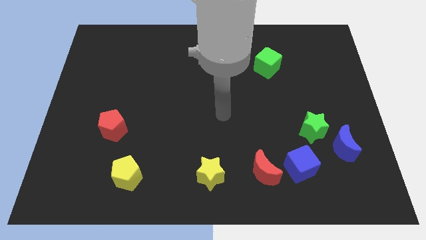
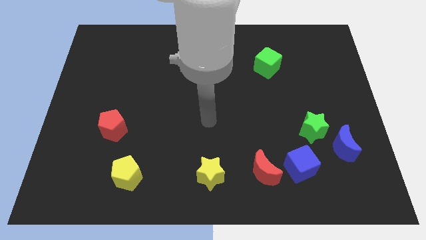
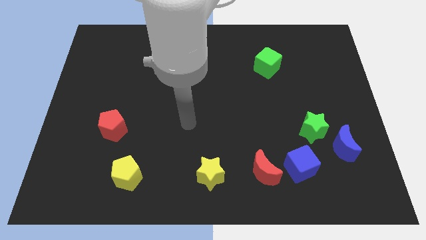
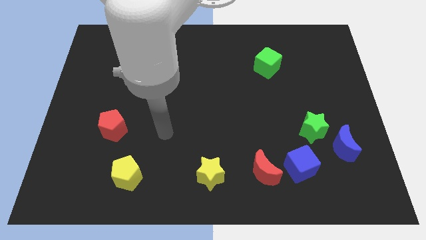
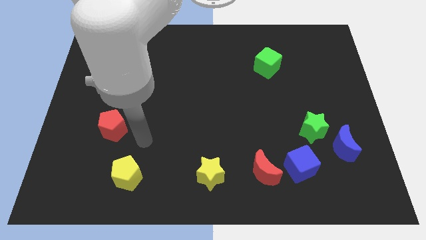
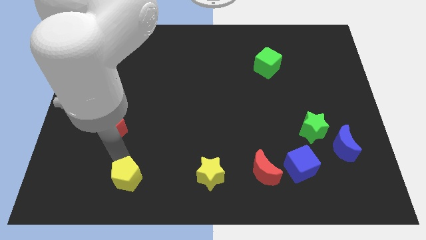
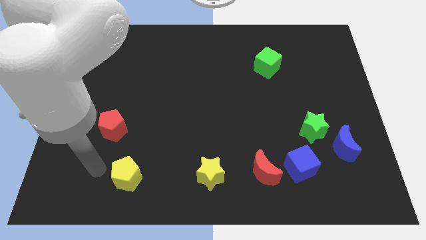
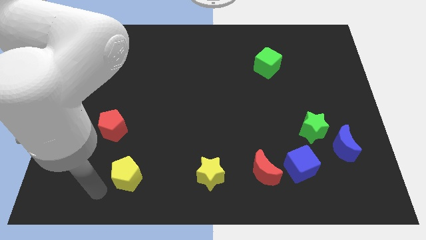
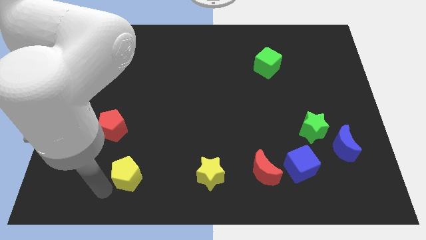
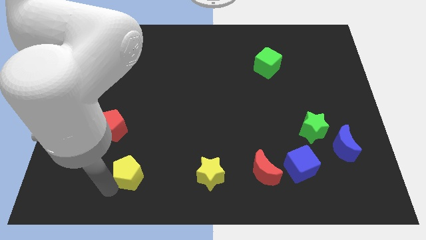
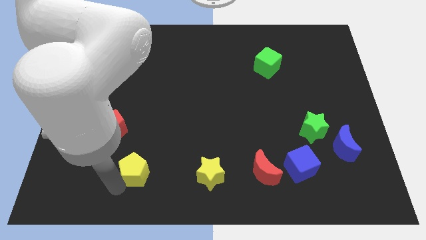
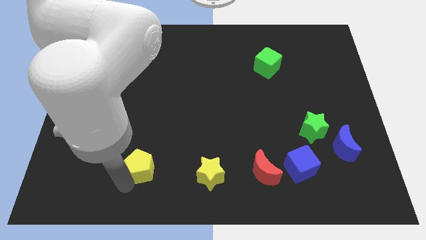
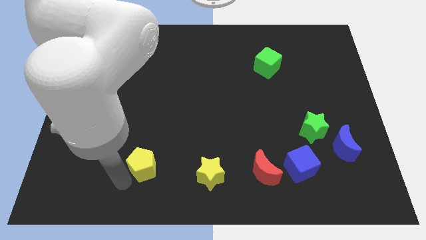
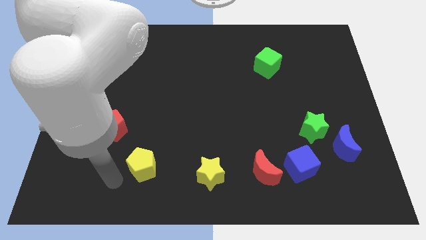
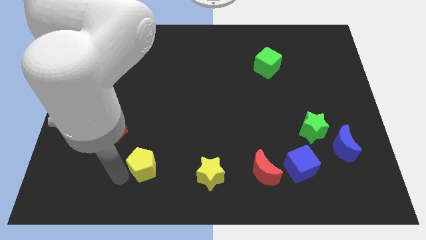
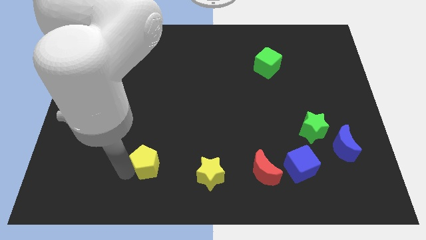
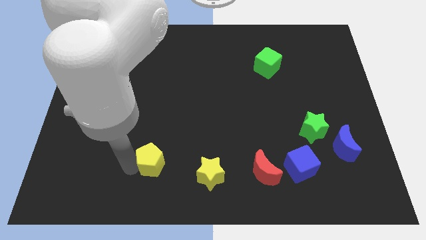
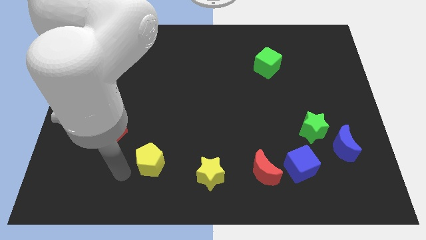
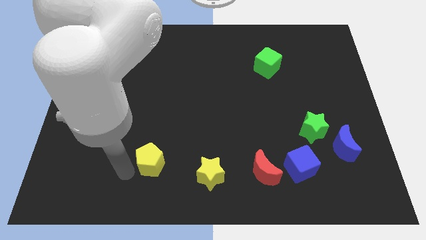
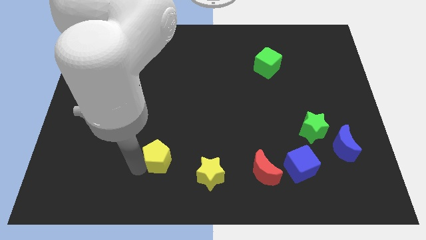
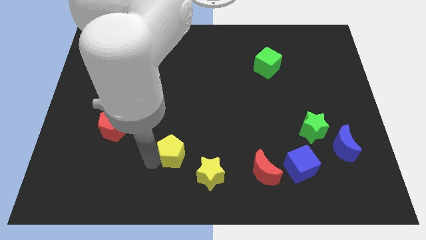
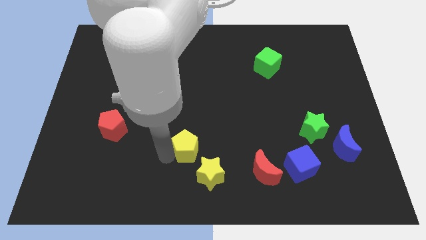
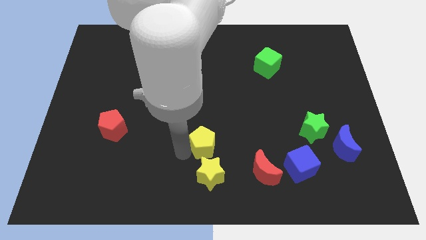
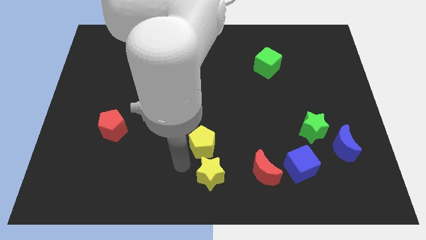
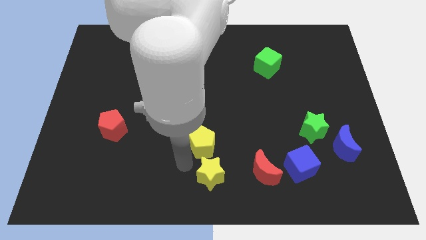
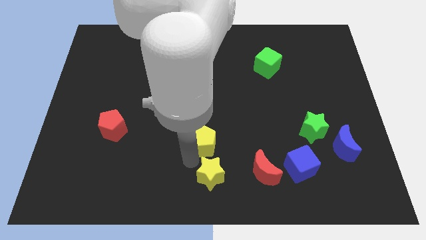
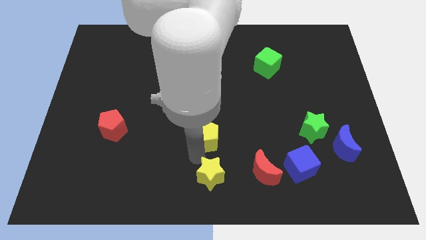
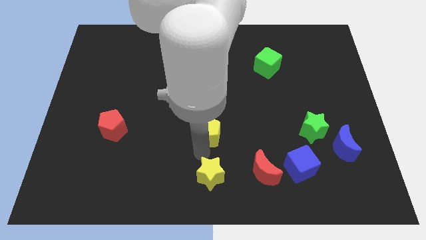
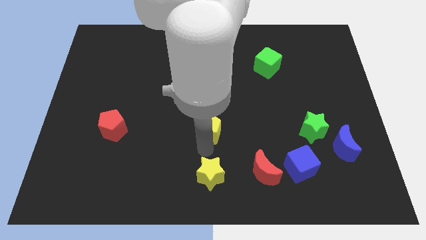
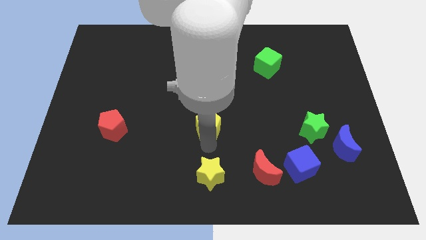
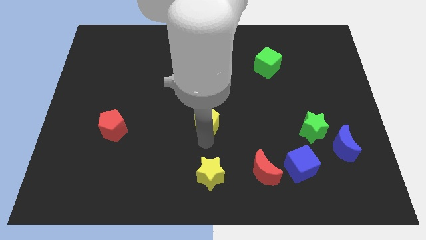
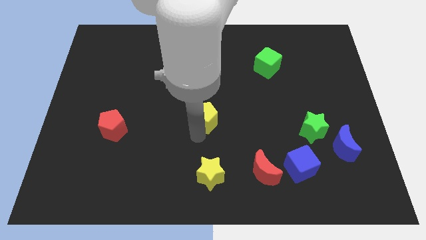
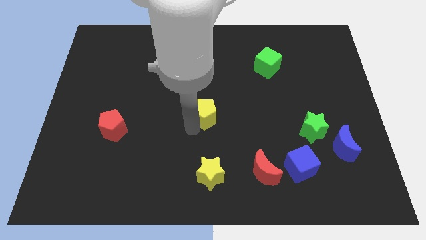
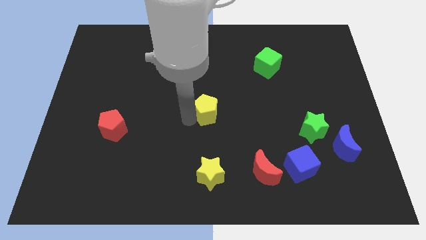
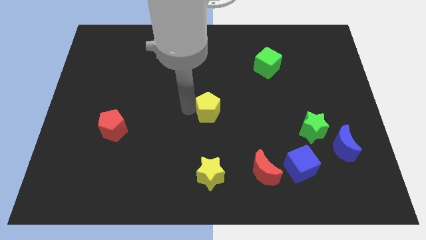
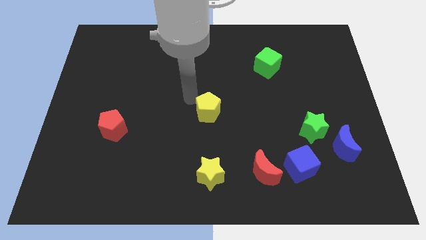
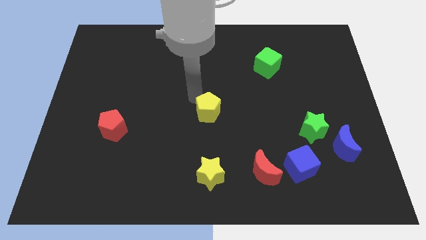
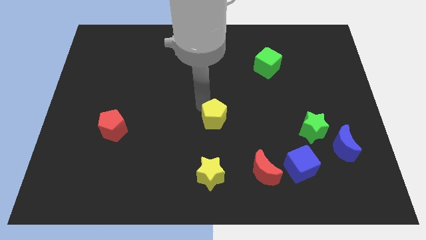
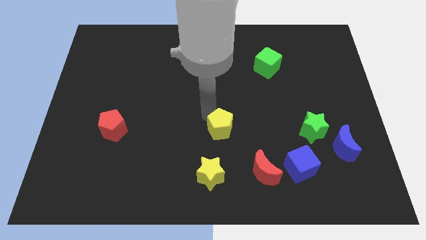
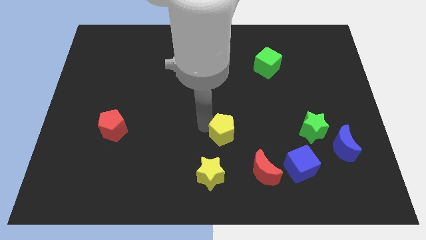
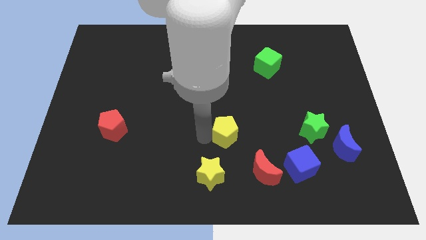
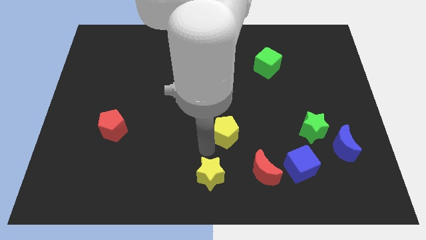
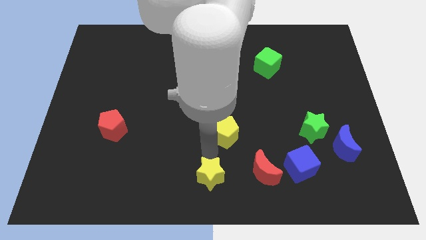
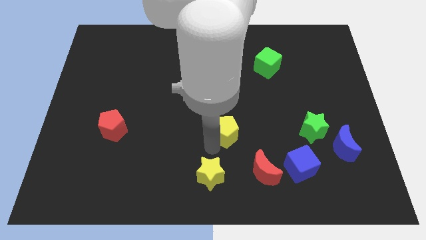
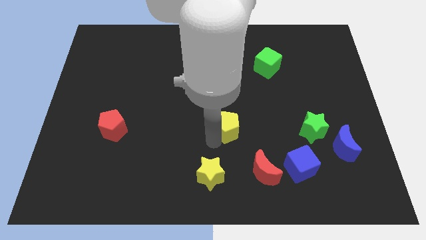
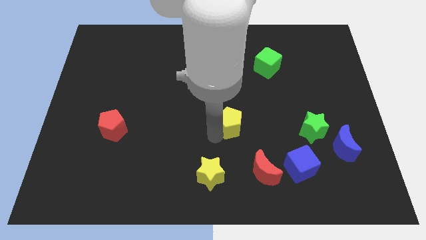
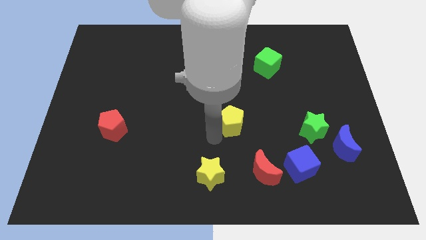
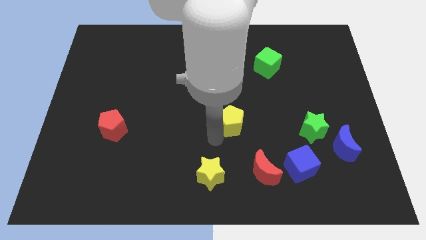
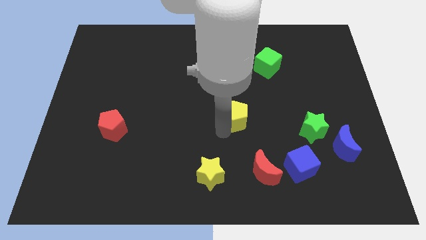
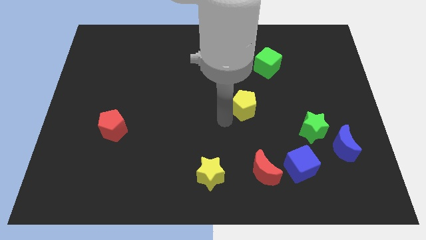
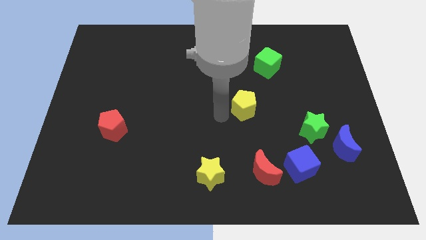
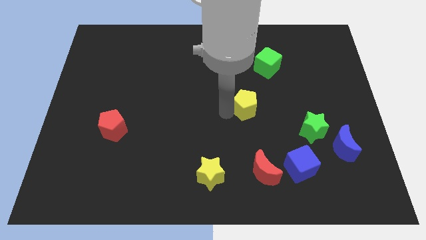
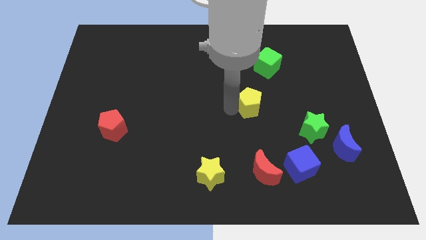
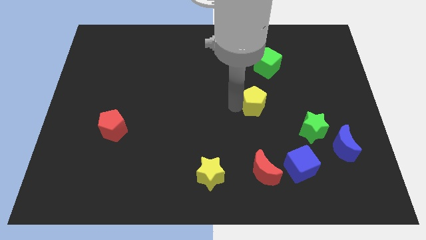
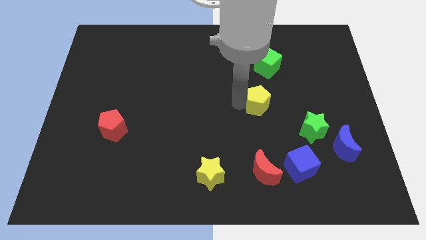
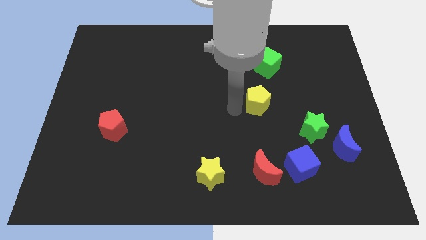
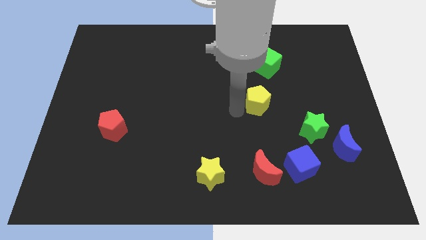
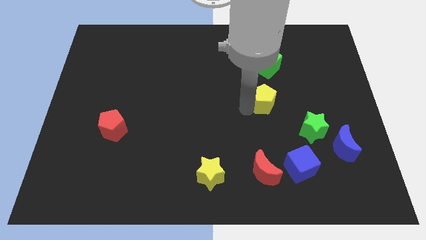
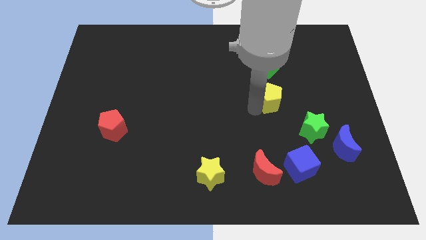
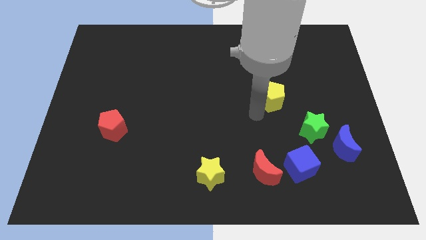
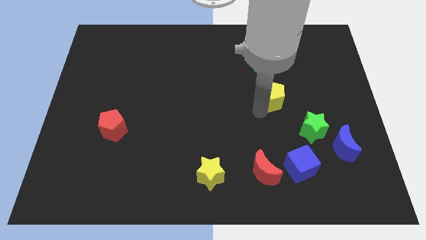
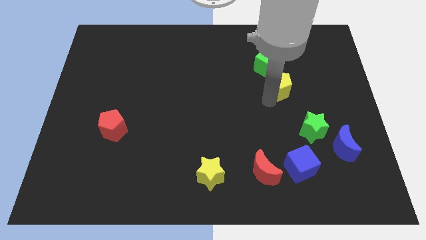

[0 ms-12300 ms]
push the yellow pentagon to the bottom right of the green cube

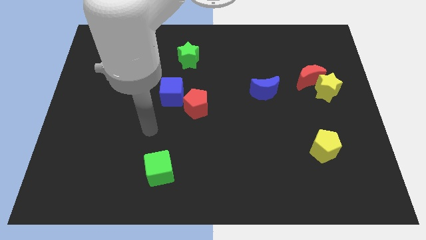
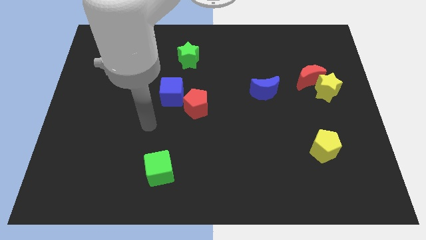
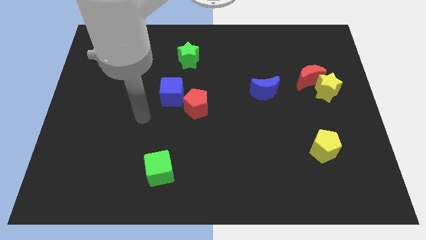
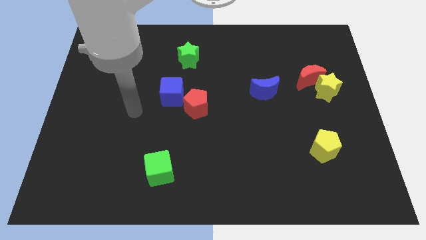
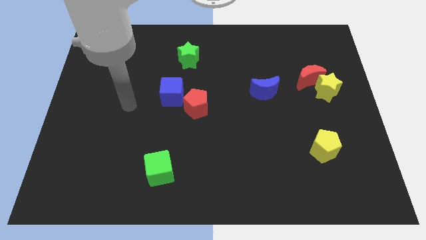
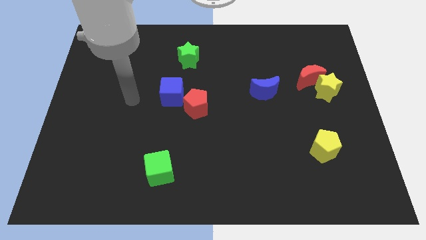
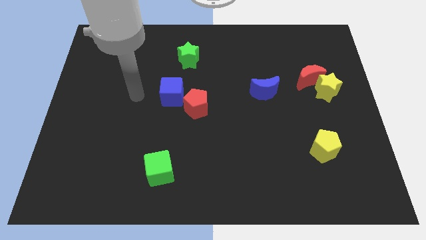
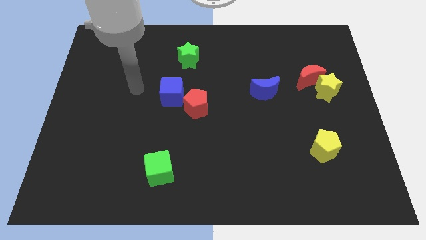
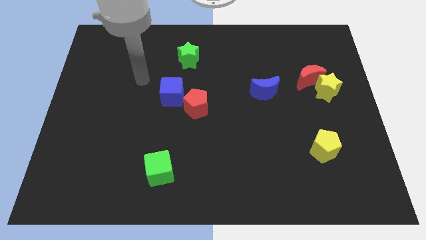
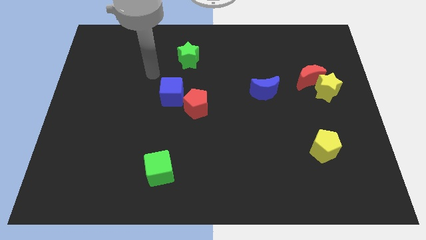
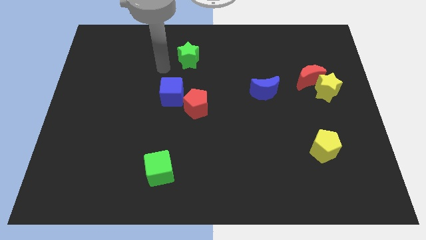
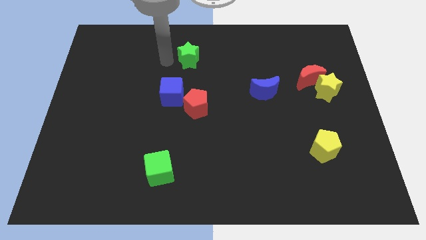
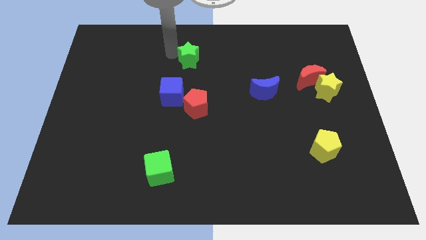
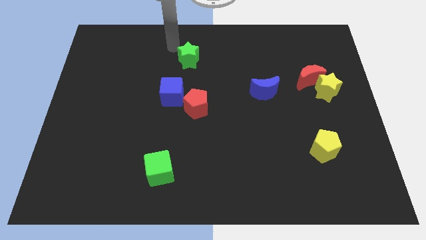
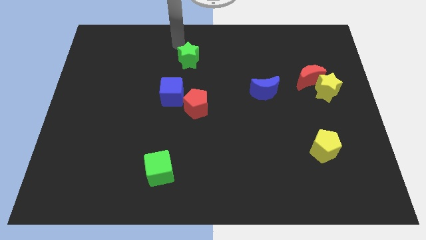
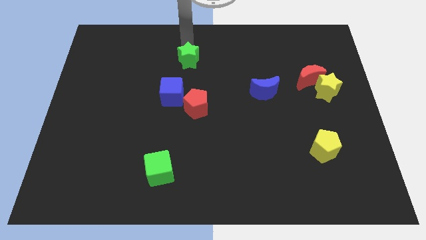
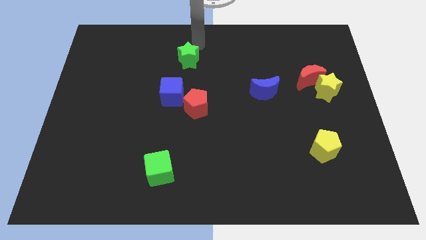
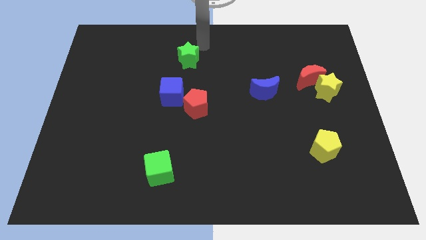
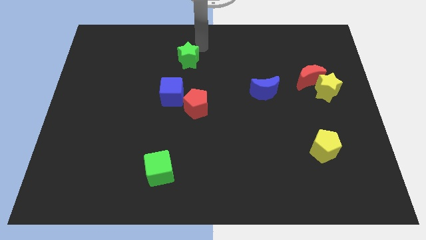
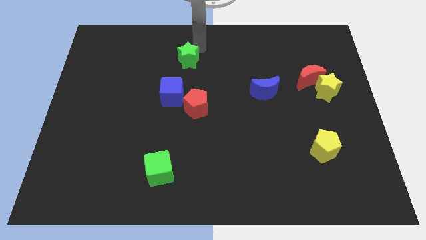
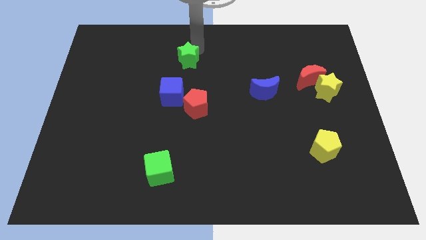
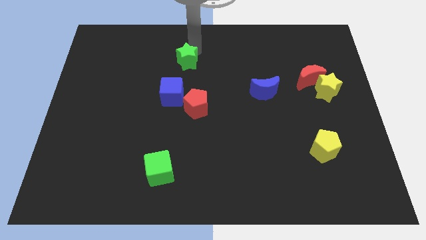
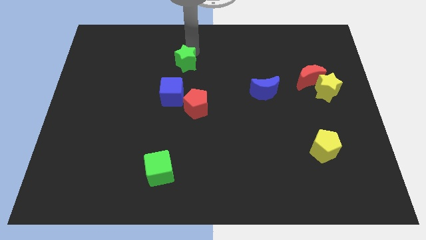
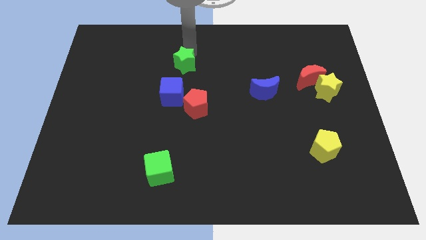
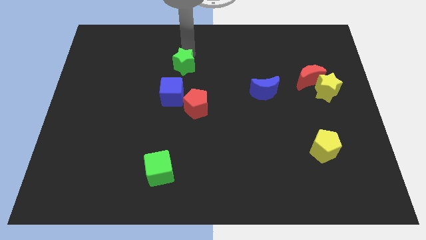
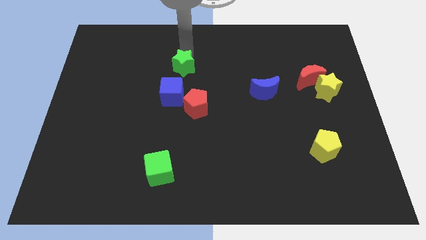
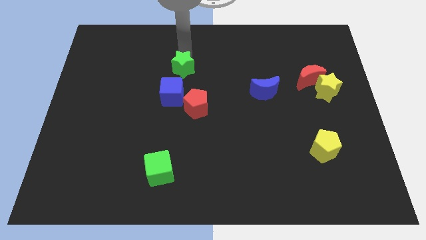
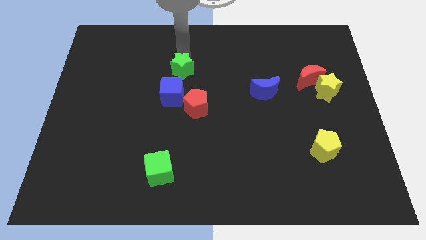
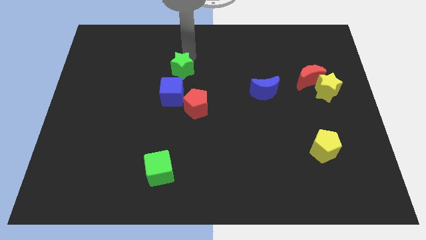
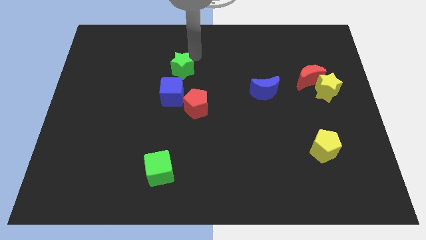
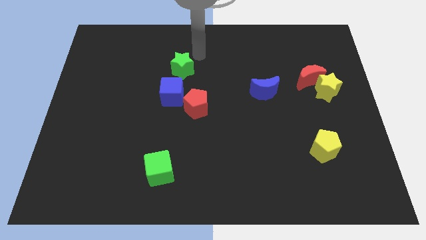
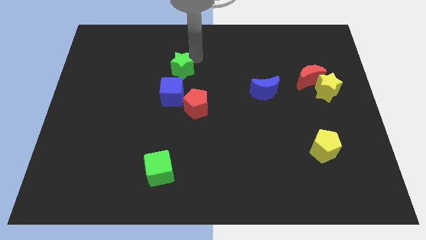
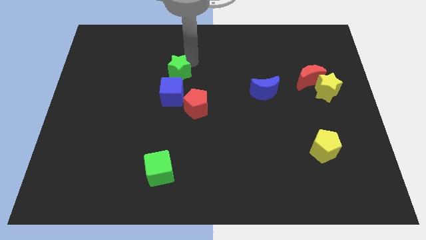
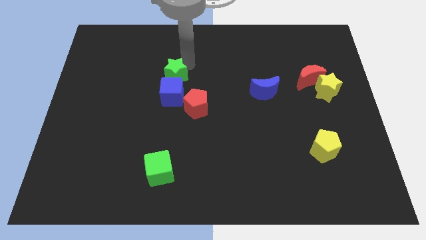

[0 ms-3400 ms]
put the green star diagonally up and to the left of the red pentagon
